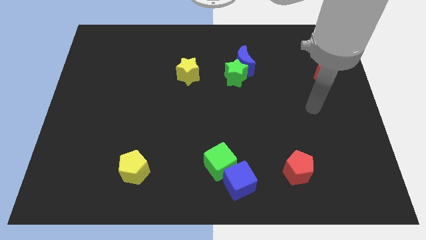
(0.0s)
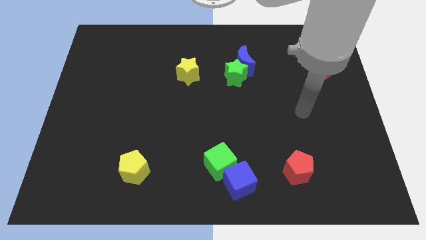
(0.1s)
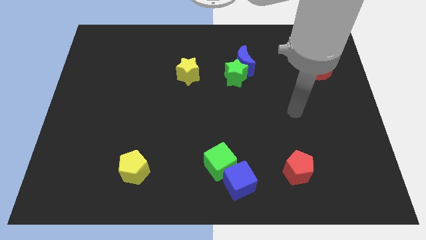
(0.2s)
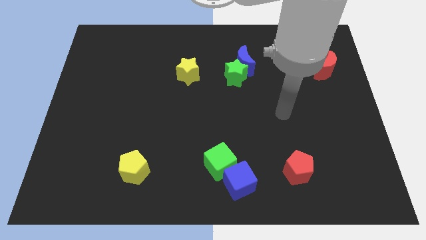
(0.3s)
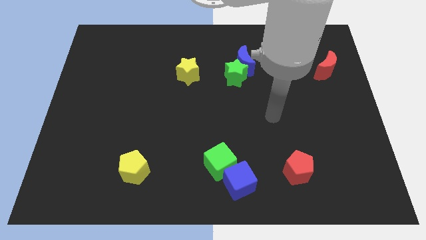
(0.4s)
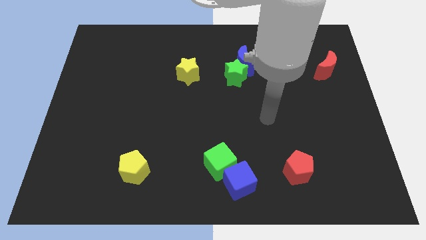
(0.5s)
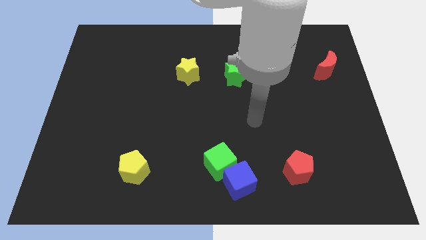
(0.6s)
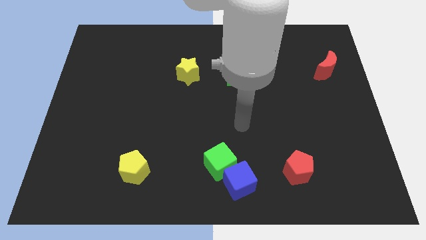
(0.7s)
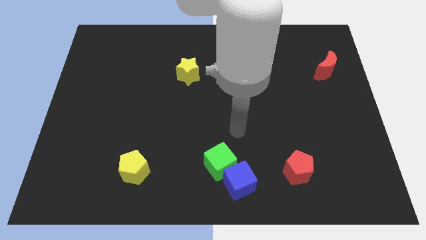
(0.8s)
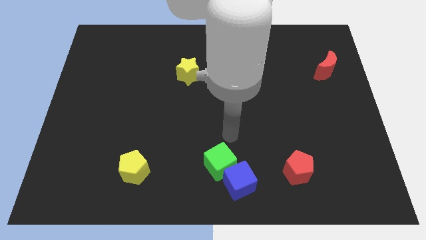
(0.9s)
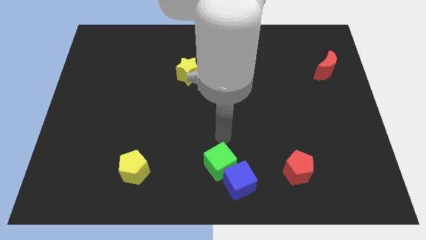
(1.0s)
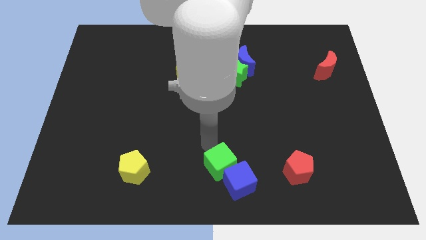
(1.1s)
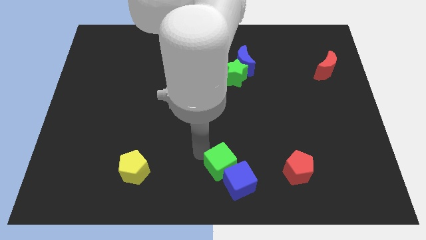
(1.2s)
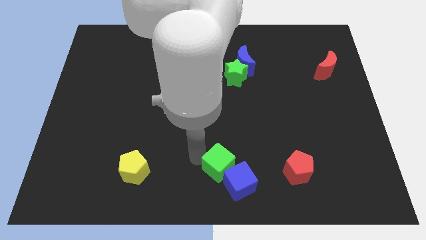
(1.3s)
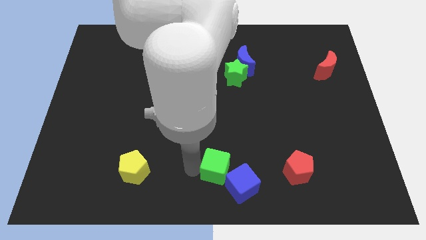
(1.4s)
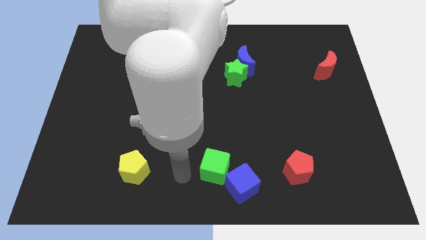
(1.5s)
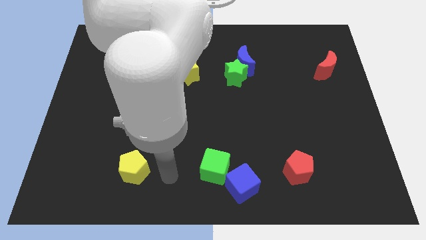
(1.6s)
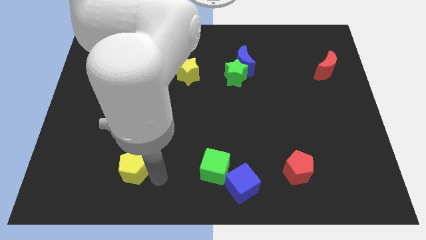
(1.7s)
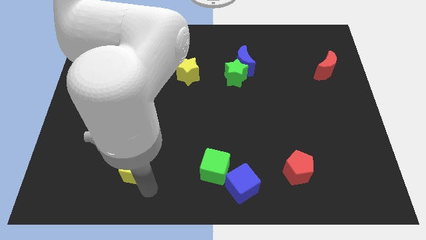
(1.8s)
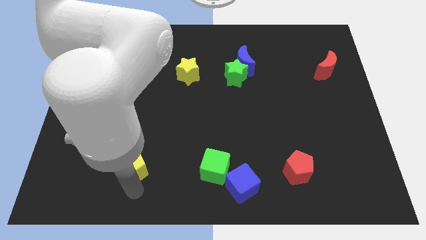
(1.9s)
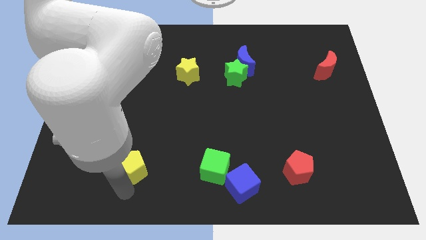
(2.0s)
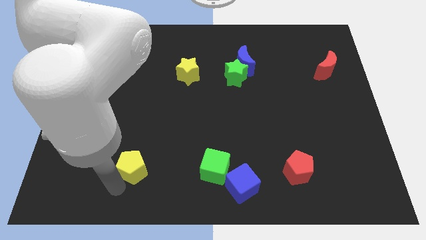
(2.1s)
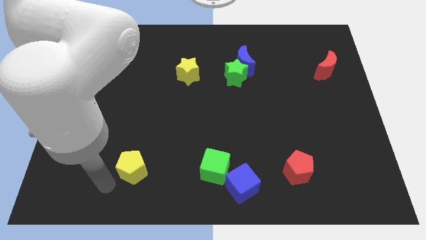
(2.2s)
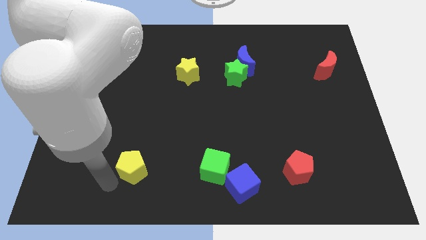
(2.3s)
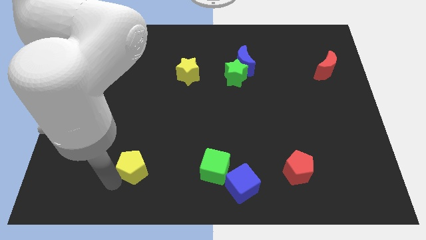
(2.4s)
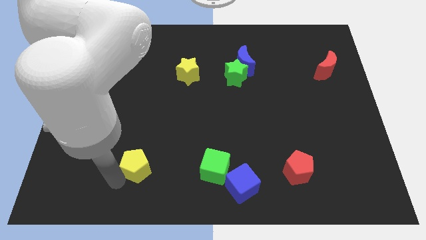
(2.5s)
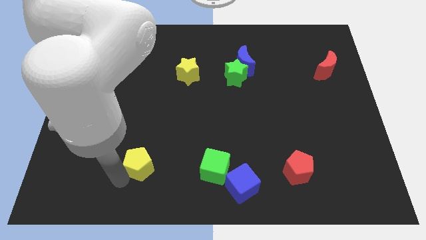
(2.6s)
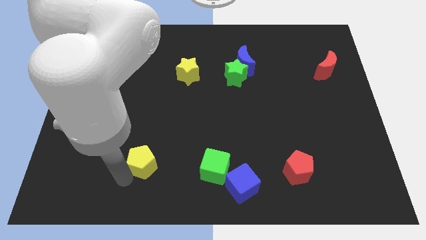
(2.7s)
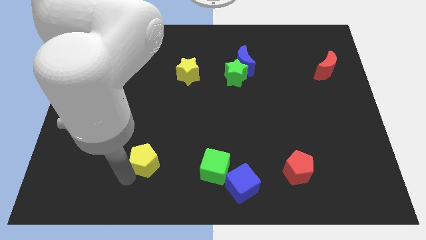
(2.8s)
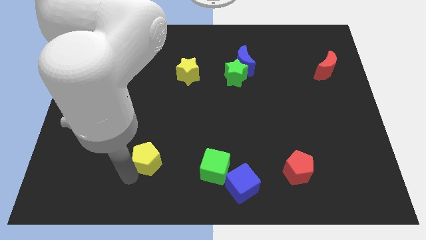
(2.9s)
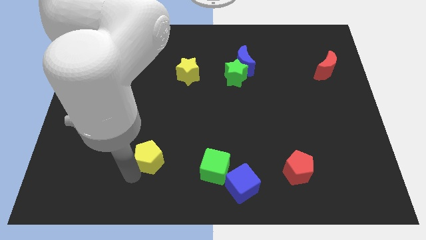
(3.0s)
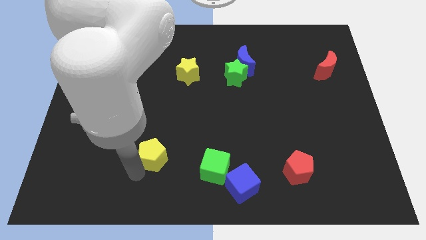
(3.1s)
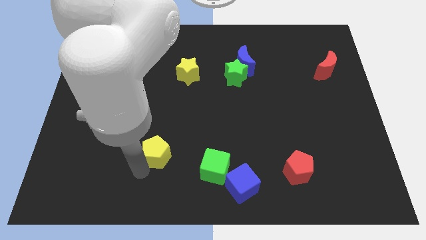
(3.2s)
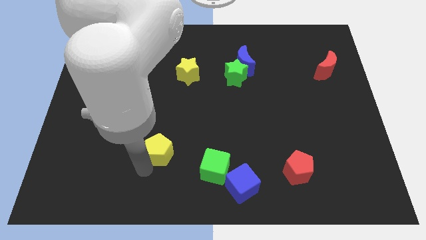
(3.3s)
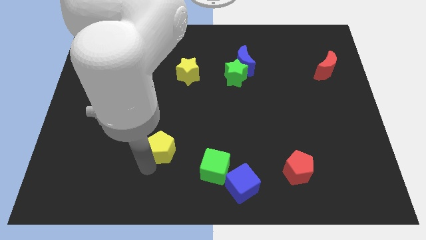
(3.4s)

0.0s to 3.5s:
slightly move the yellow pentagon diagonally upwards and to the right

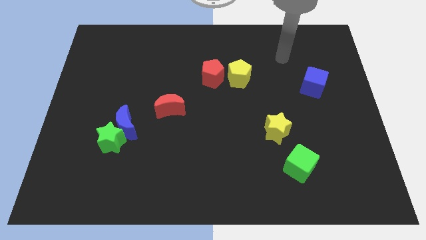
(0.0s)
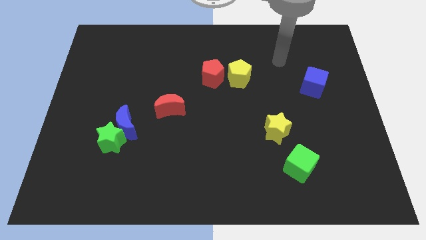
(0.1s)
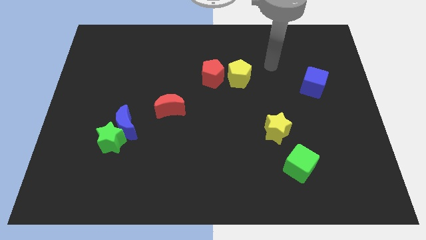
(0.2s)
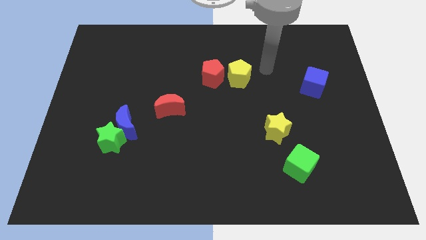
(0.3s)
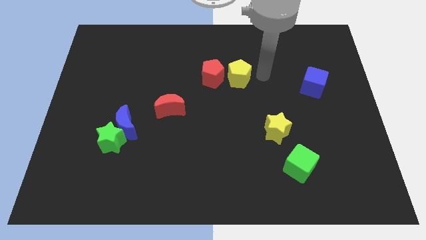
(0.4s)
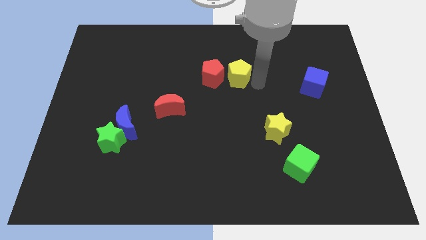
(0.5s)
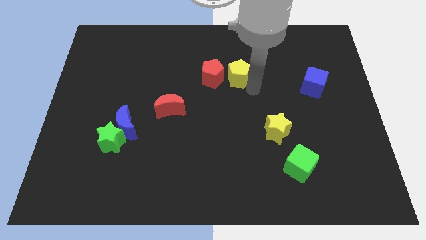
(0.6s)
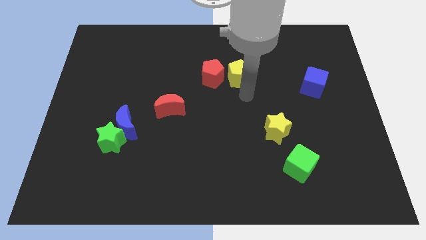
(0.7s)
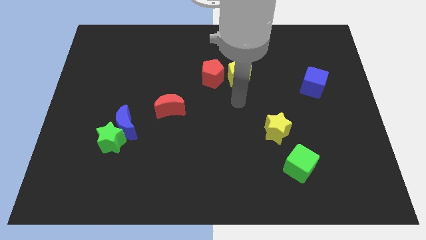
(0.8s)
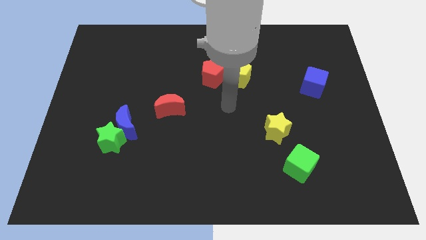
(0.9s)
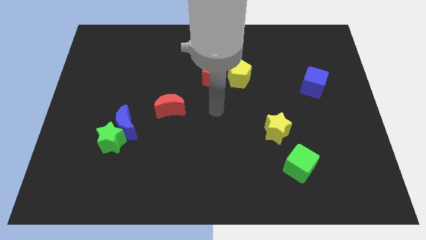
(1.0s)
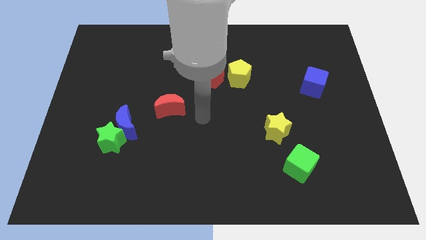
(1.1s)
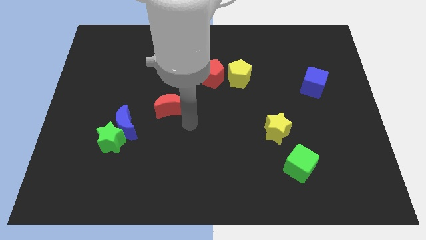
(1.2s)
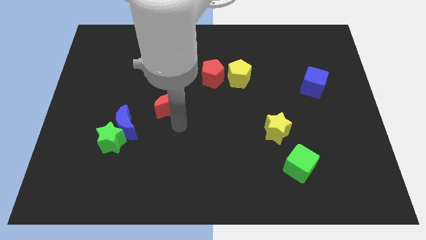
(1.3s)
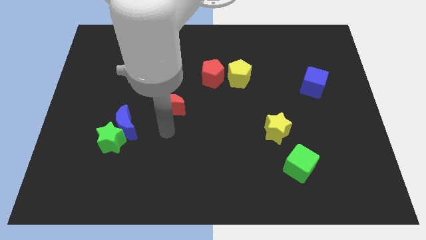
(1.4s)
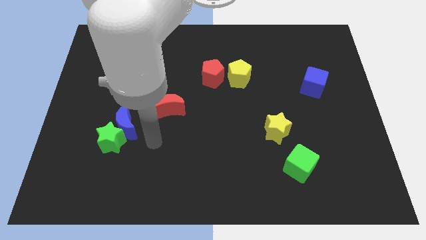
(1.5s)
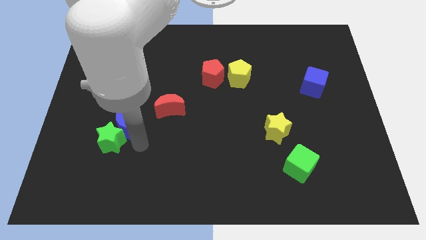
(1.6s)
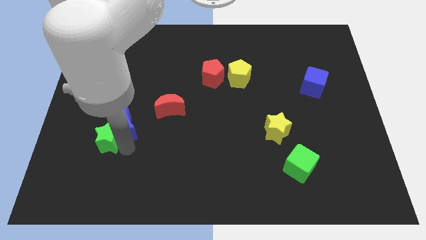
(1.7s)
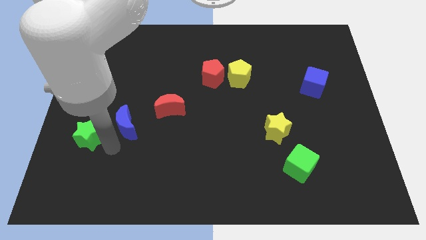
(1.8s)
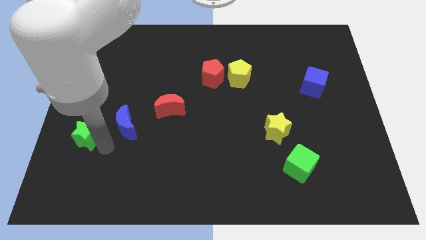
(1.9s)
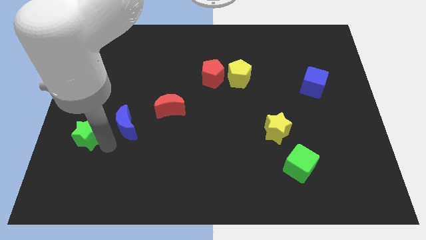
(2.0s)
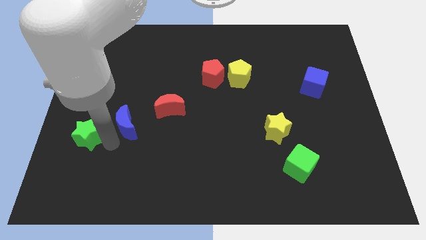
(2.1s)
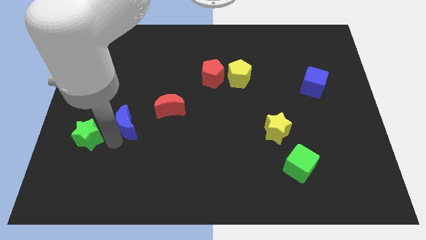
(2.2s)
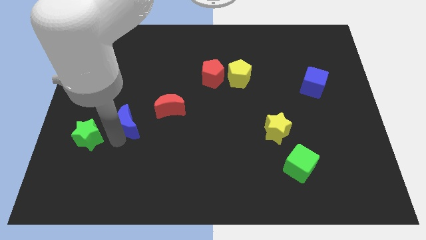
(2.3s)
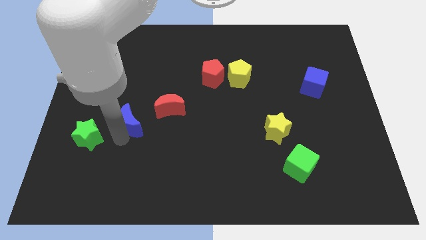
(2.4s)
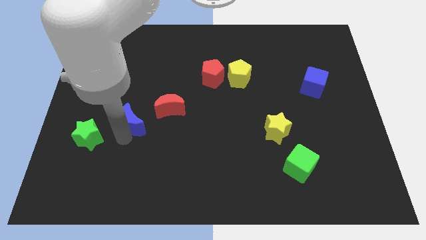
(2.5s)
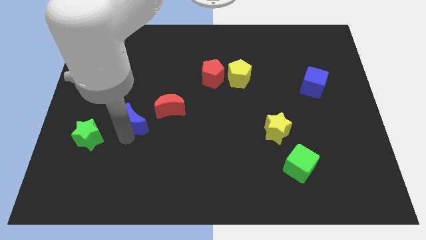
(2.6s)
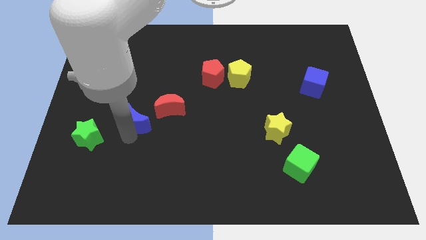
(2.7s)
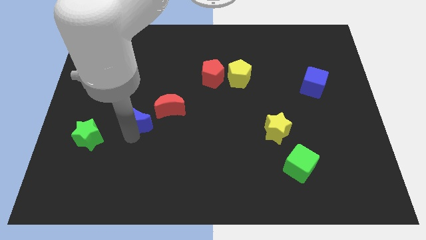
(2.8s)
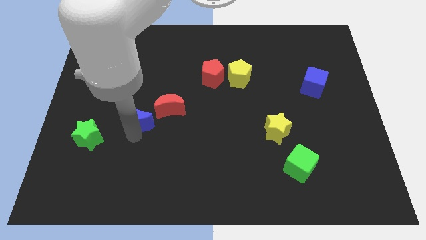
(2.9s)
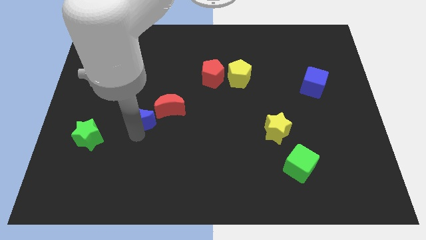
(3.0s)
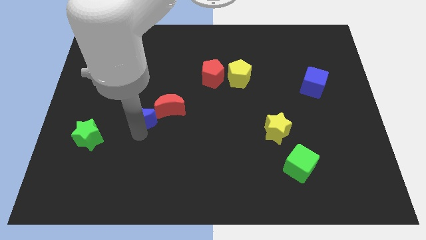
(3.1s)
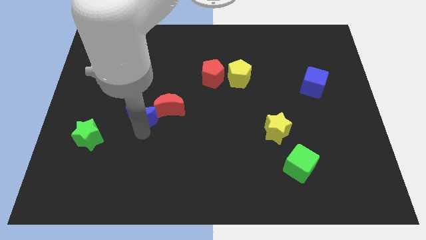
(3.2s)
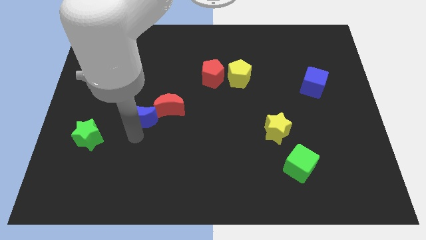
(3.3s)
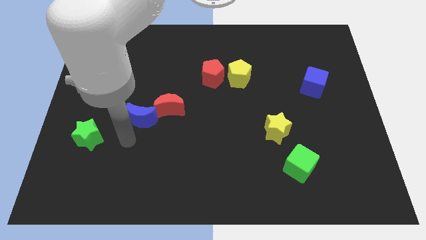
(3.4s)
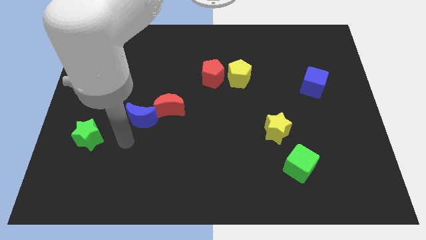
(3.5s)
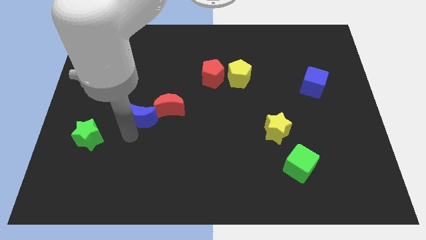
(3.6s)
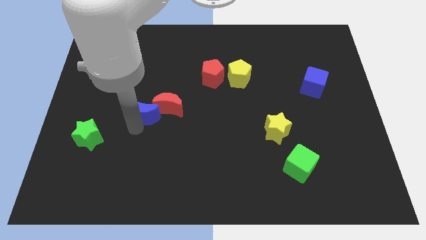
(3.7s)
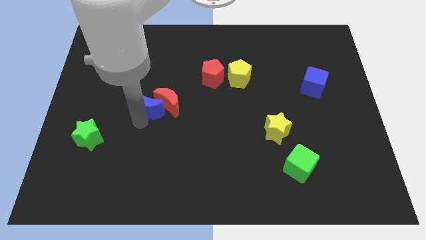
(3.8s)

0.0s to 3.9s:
push the blue moon diagonally up and to the right a little

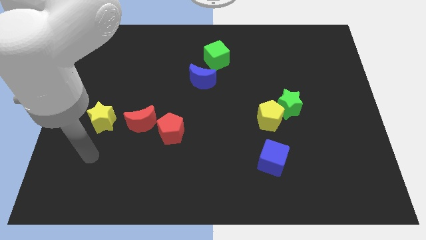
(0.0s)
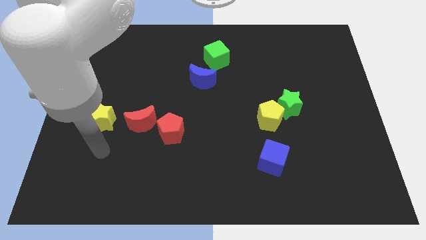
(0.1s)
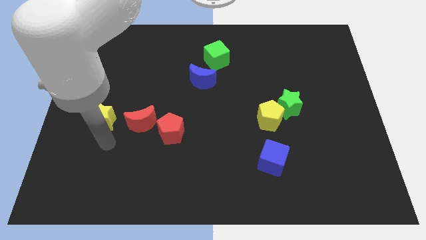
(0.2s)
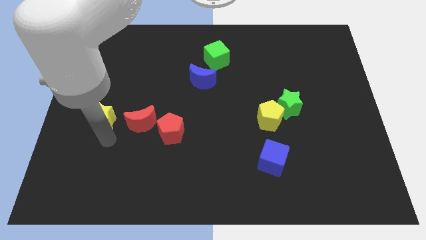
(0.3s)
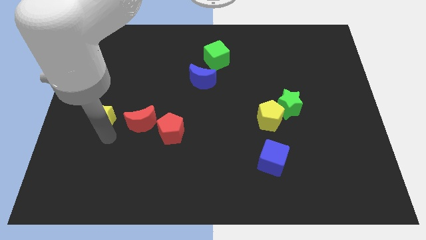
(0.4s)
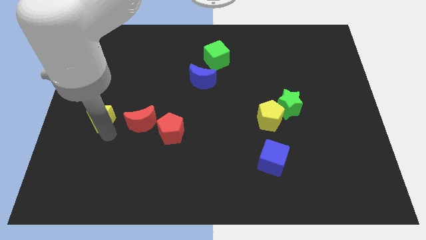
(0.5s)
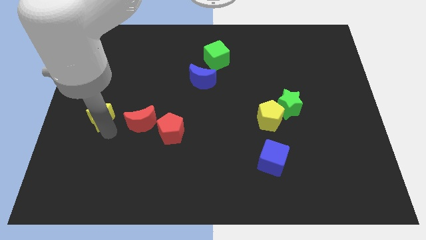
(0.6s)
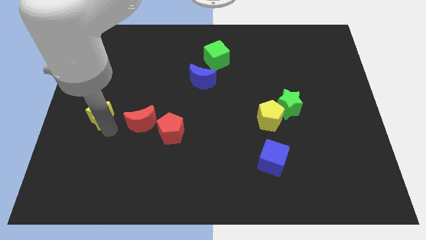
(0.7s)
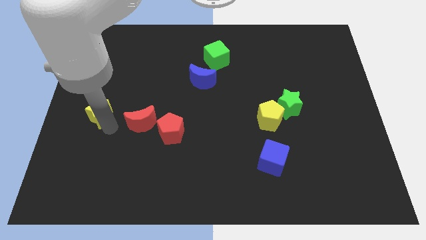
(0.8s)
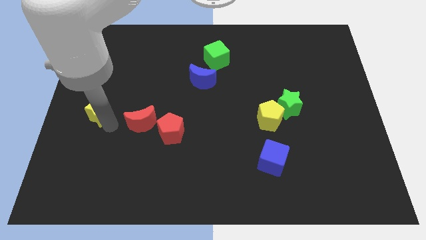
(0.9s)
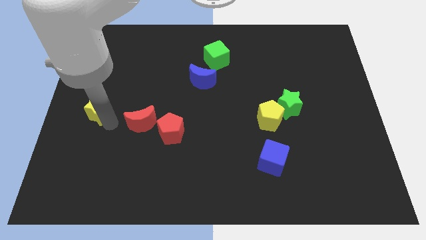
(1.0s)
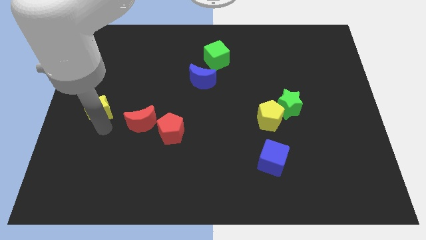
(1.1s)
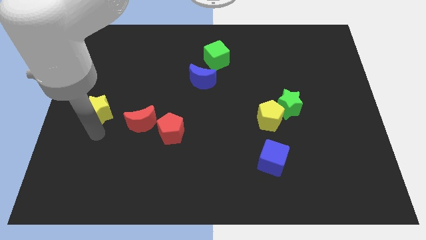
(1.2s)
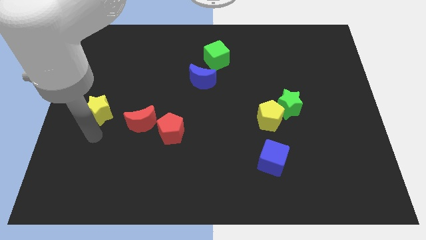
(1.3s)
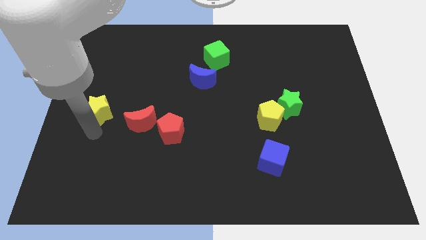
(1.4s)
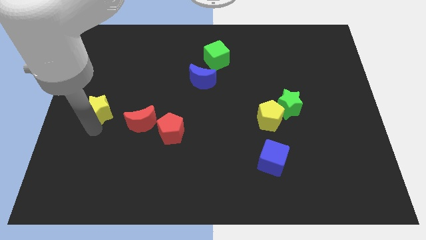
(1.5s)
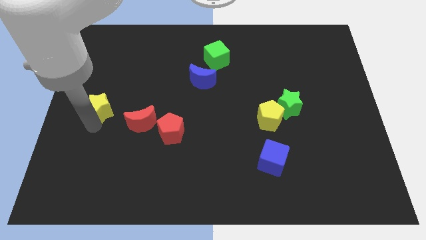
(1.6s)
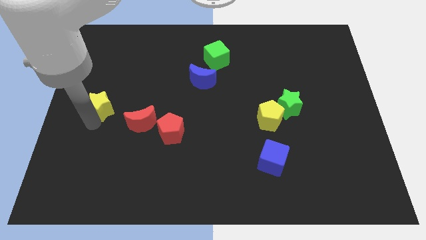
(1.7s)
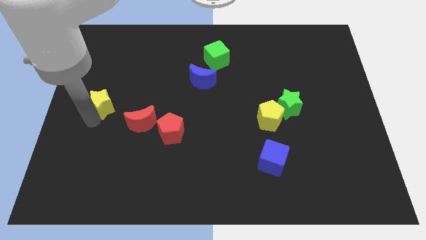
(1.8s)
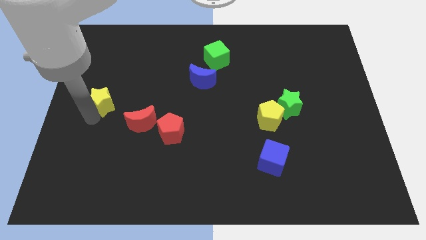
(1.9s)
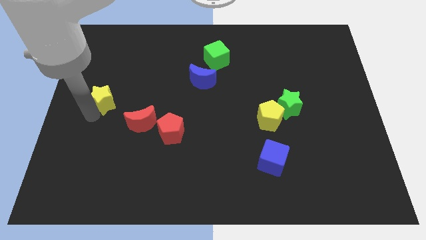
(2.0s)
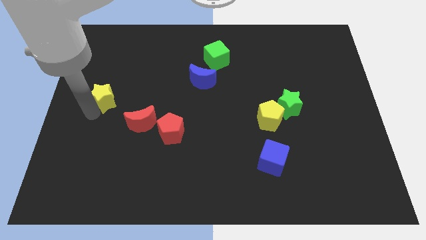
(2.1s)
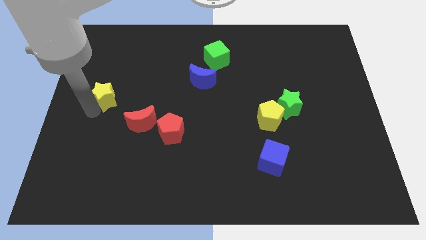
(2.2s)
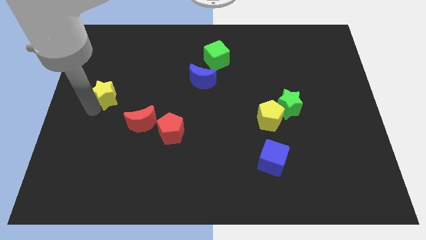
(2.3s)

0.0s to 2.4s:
move the yellow star a little bit upwards
